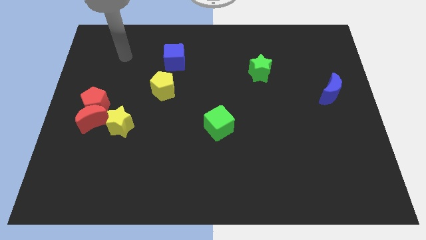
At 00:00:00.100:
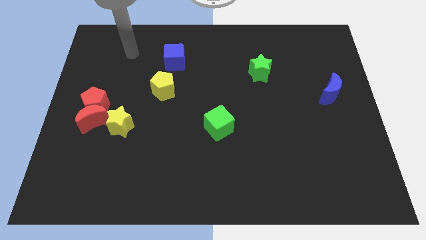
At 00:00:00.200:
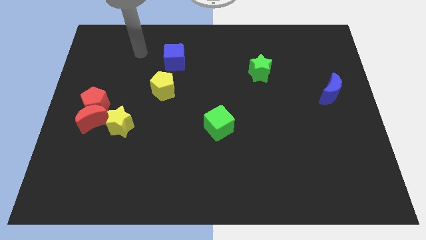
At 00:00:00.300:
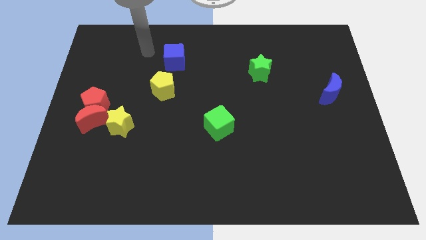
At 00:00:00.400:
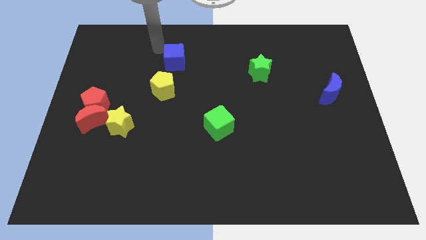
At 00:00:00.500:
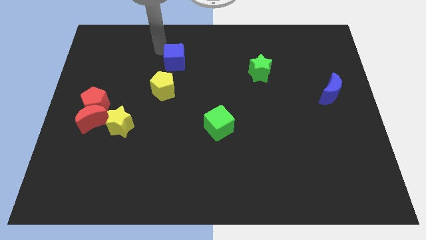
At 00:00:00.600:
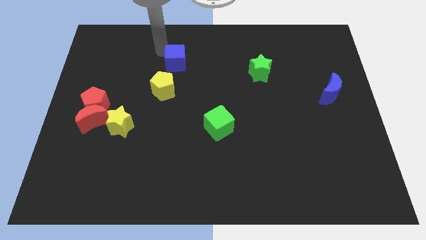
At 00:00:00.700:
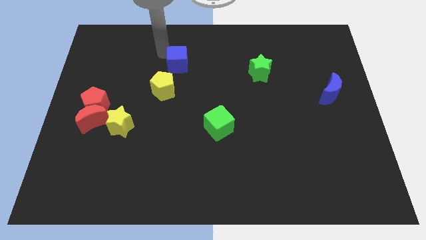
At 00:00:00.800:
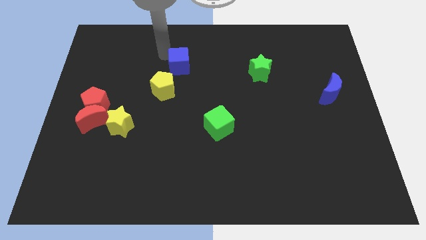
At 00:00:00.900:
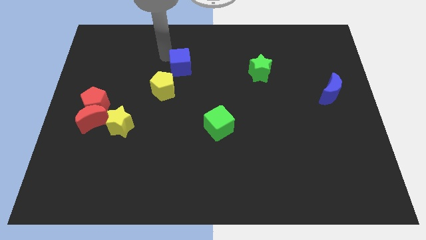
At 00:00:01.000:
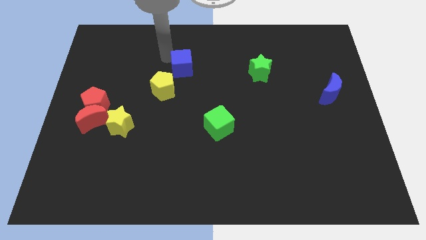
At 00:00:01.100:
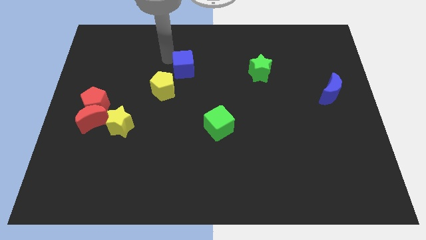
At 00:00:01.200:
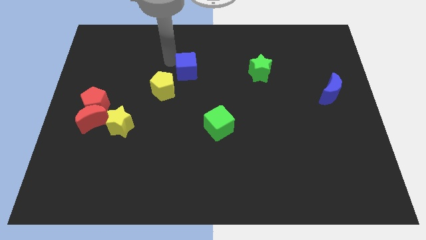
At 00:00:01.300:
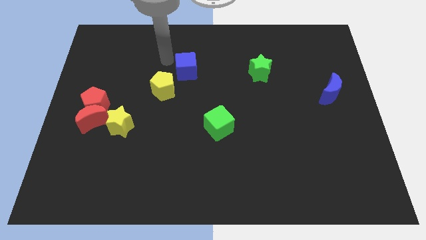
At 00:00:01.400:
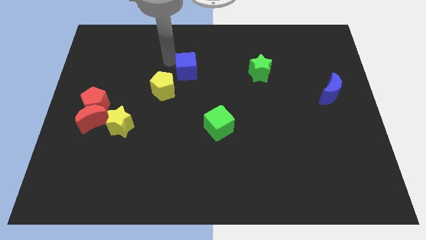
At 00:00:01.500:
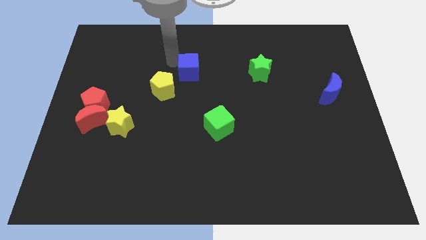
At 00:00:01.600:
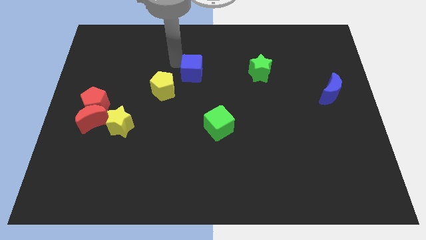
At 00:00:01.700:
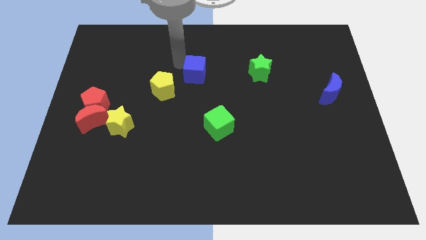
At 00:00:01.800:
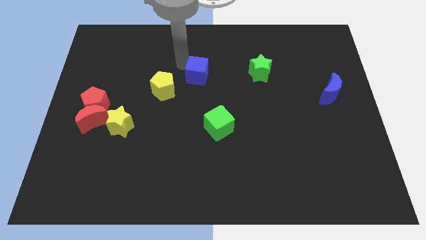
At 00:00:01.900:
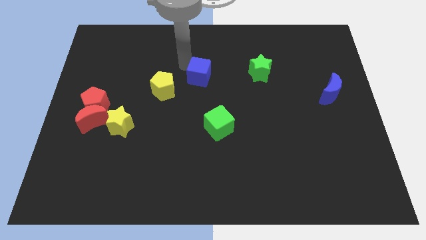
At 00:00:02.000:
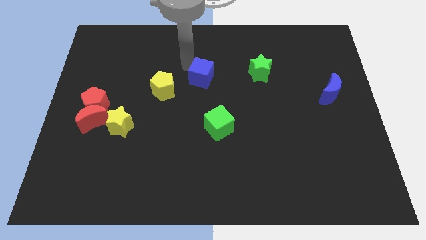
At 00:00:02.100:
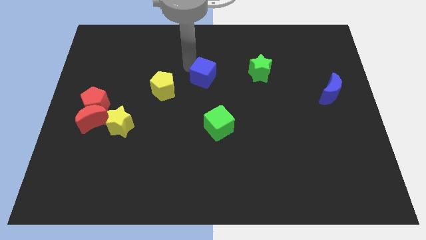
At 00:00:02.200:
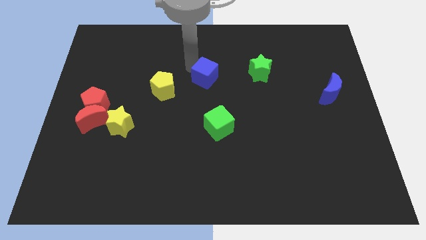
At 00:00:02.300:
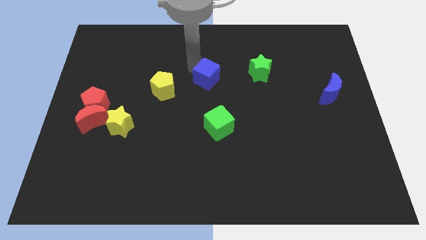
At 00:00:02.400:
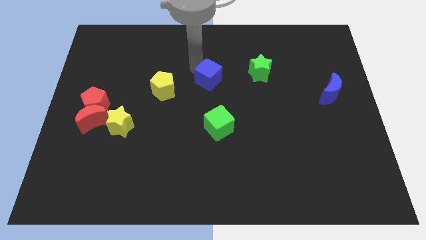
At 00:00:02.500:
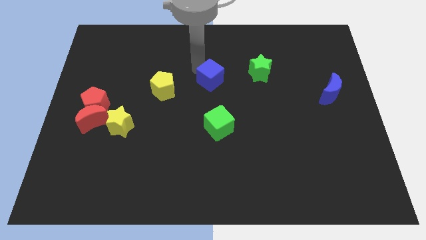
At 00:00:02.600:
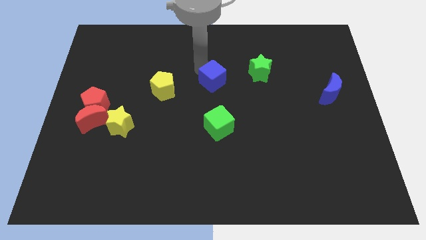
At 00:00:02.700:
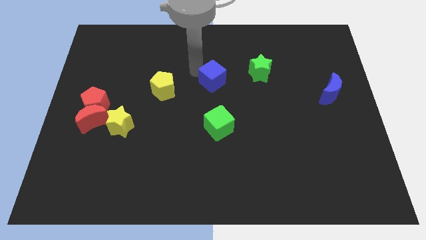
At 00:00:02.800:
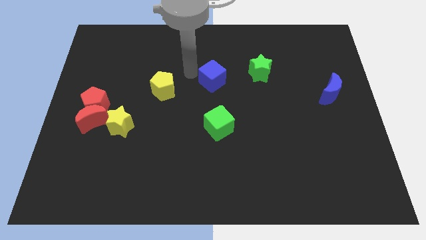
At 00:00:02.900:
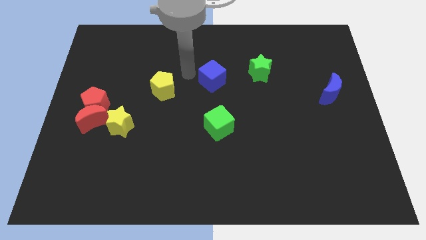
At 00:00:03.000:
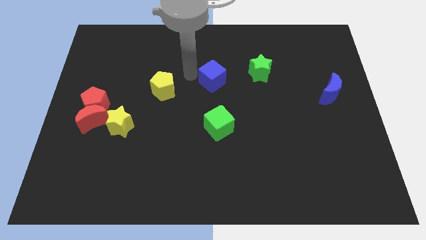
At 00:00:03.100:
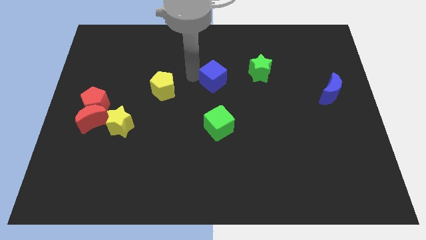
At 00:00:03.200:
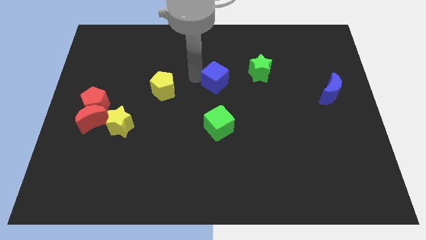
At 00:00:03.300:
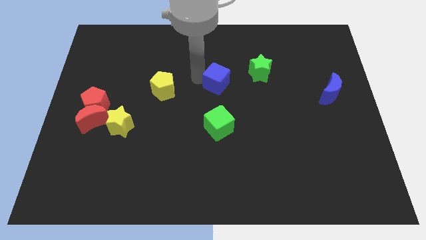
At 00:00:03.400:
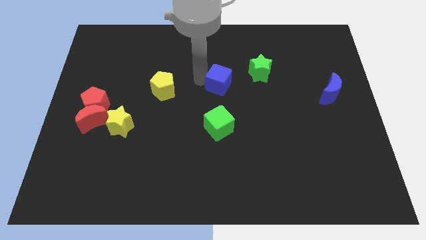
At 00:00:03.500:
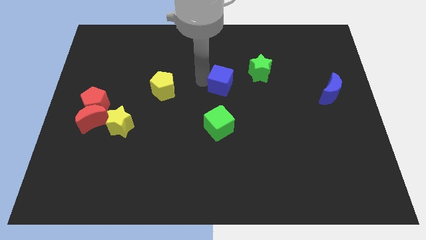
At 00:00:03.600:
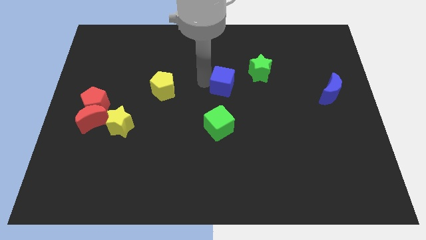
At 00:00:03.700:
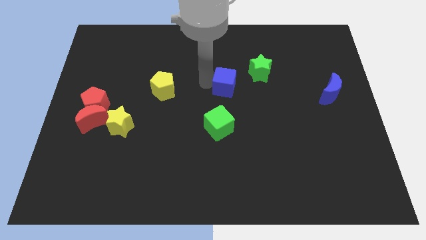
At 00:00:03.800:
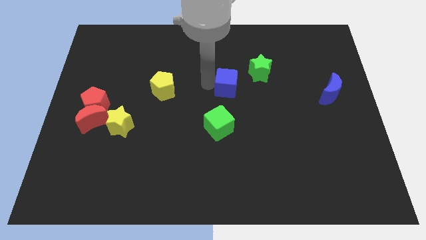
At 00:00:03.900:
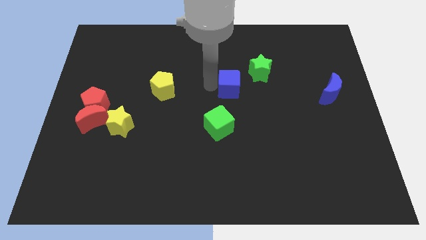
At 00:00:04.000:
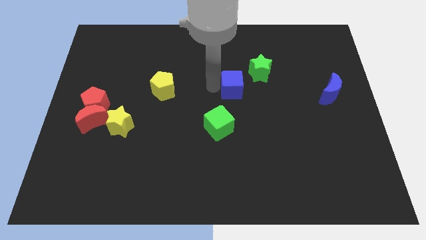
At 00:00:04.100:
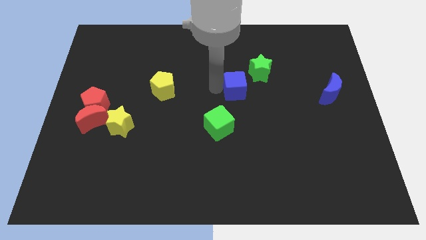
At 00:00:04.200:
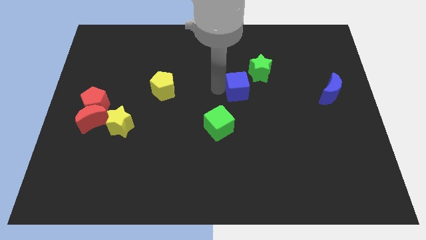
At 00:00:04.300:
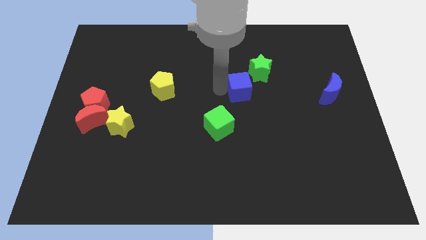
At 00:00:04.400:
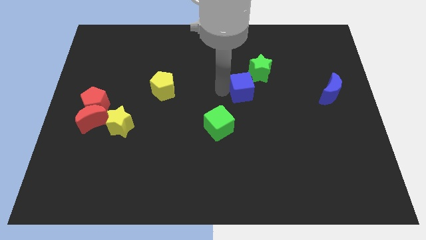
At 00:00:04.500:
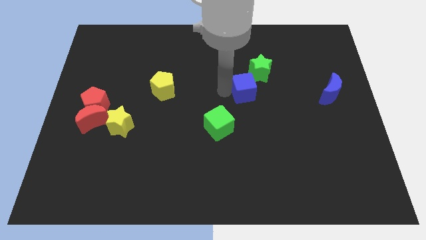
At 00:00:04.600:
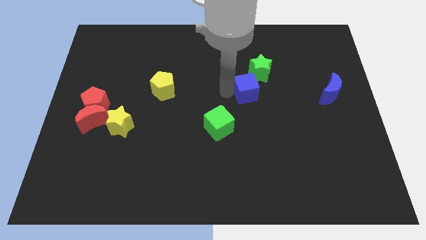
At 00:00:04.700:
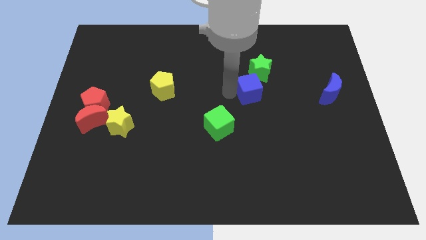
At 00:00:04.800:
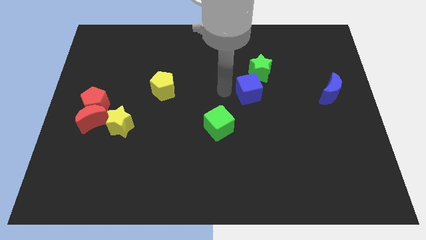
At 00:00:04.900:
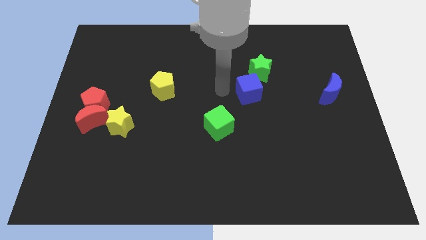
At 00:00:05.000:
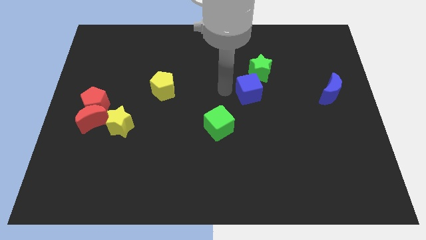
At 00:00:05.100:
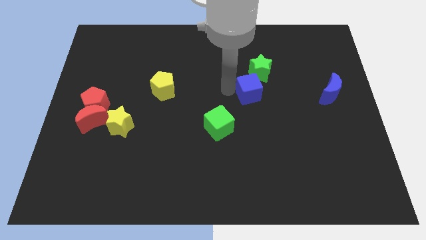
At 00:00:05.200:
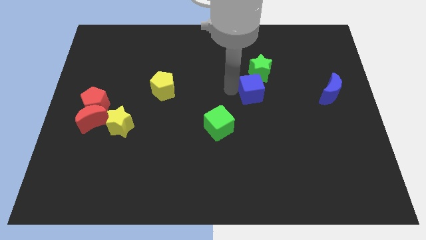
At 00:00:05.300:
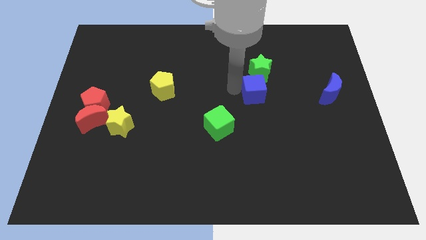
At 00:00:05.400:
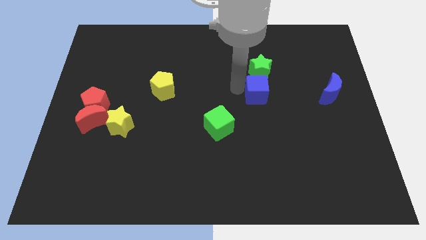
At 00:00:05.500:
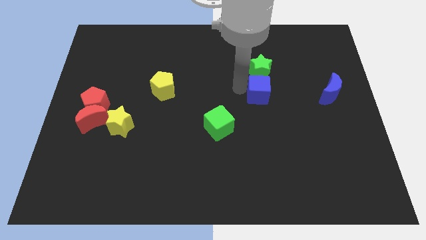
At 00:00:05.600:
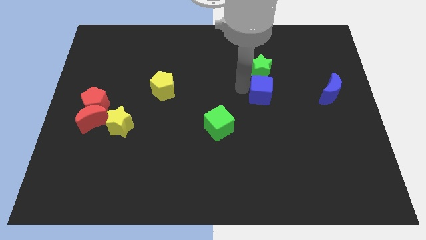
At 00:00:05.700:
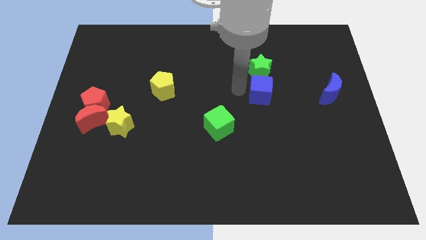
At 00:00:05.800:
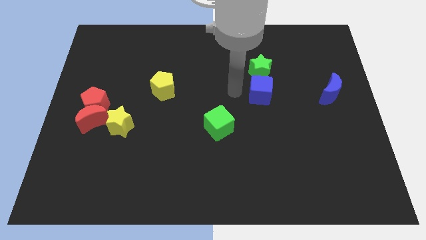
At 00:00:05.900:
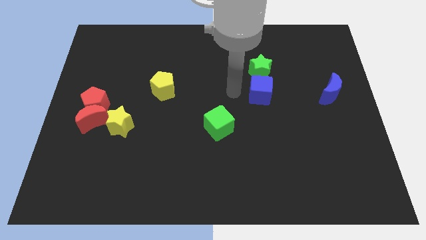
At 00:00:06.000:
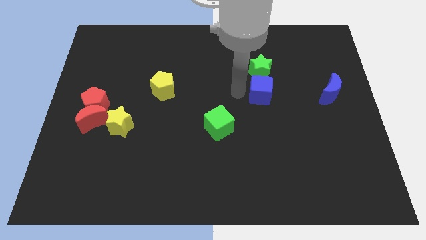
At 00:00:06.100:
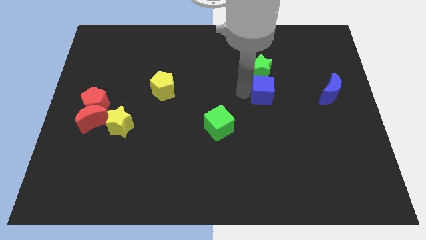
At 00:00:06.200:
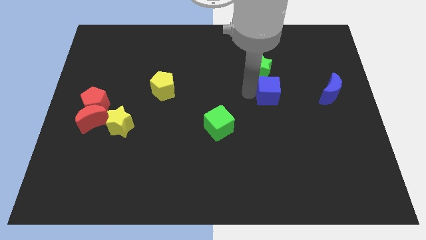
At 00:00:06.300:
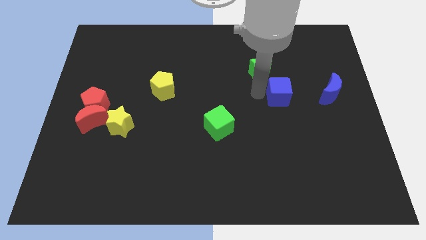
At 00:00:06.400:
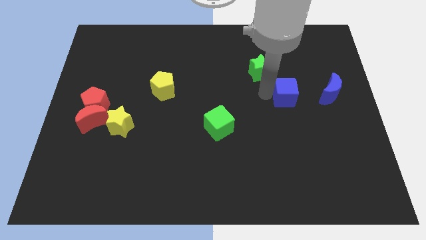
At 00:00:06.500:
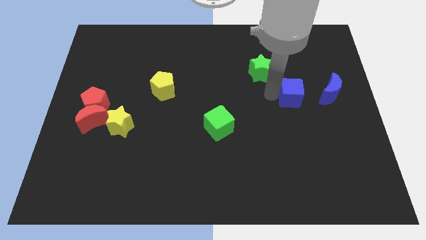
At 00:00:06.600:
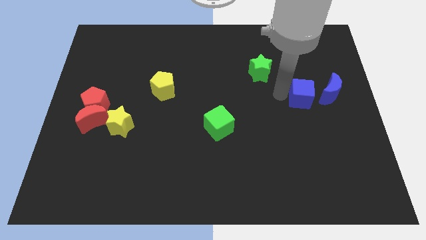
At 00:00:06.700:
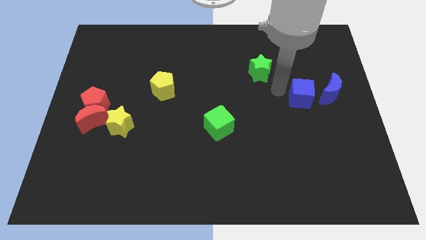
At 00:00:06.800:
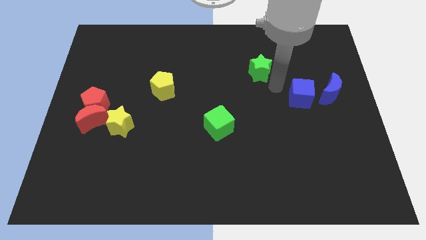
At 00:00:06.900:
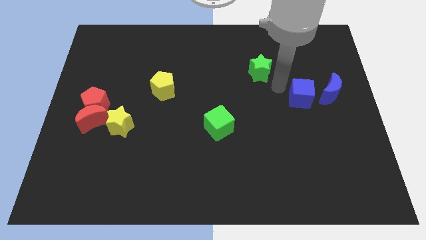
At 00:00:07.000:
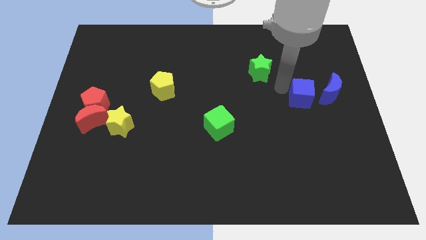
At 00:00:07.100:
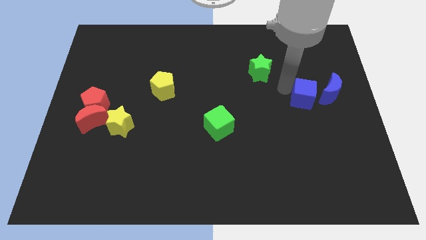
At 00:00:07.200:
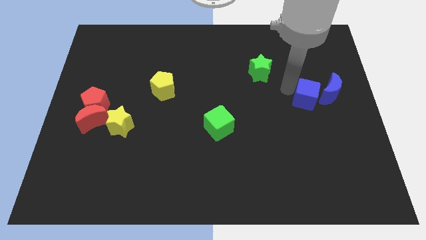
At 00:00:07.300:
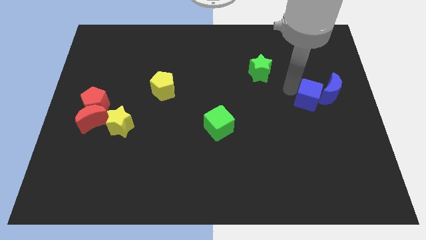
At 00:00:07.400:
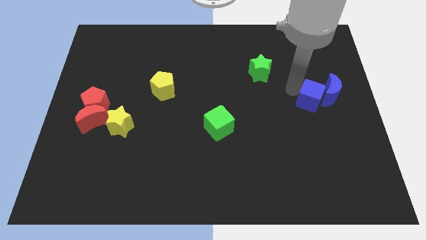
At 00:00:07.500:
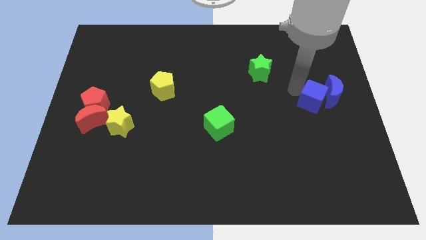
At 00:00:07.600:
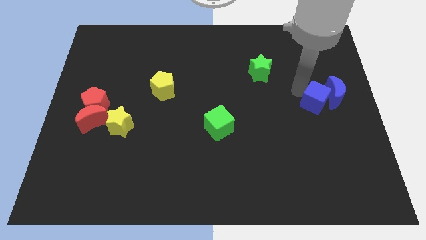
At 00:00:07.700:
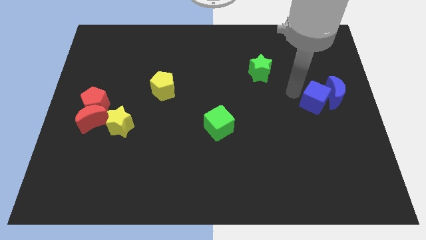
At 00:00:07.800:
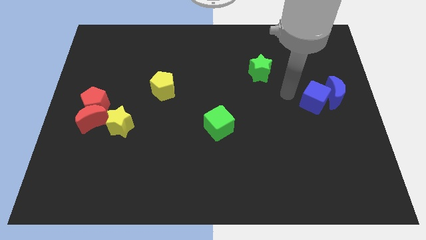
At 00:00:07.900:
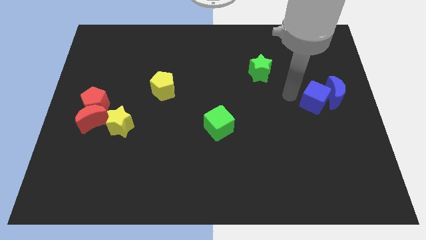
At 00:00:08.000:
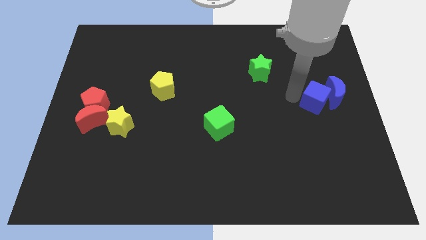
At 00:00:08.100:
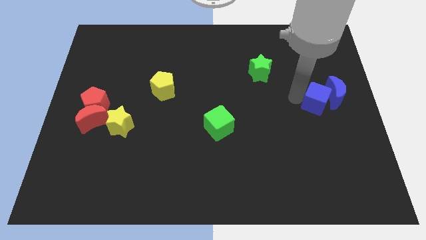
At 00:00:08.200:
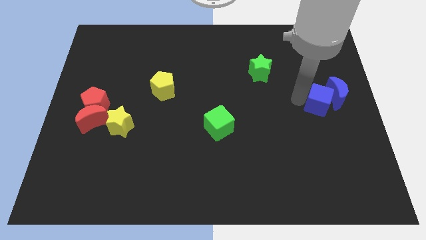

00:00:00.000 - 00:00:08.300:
push the blue cube to the right side
